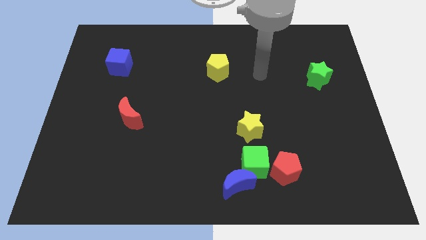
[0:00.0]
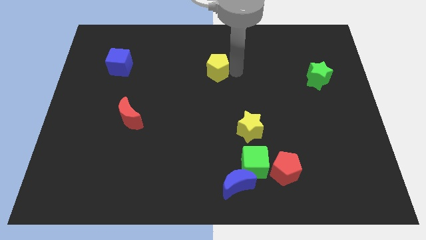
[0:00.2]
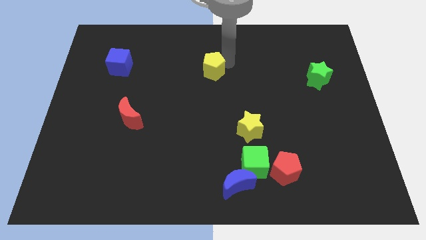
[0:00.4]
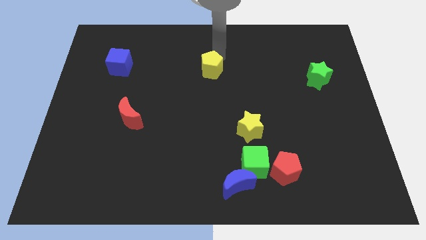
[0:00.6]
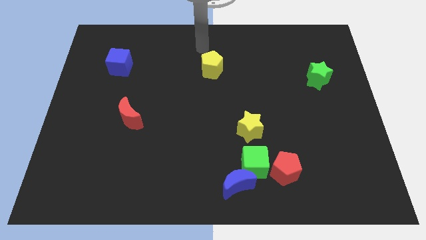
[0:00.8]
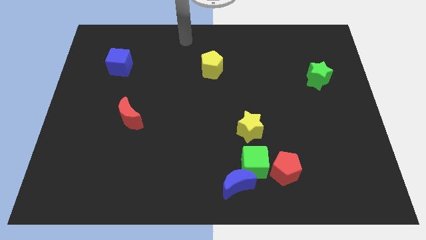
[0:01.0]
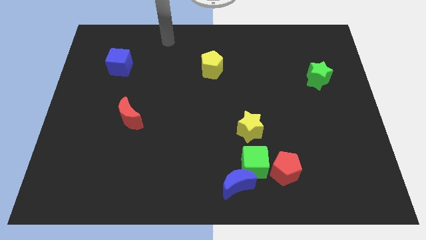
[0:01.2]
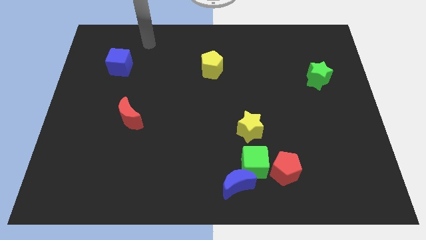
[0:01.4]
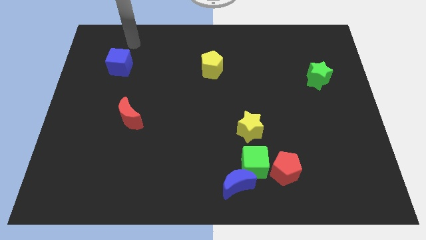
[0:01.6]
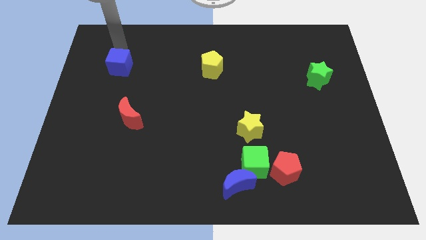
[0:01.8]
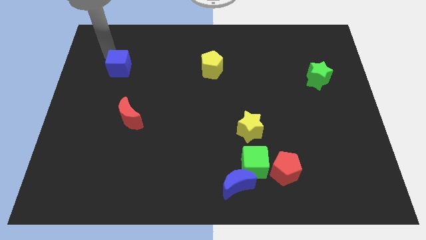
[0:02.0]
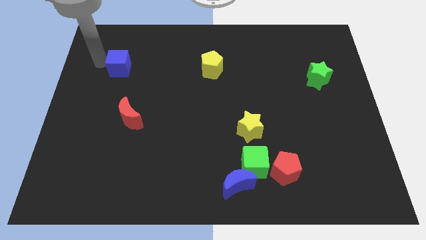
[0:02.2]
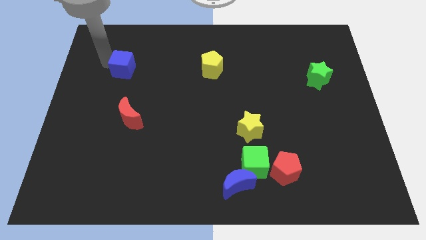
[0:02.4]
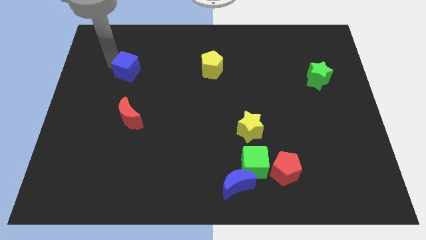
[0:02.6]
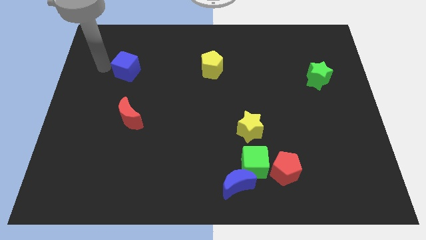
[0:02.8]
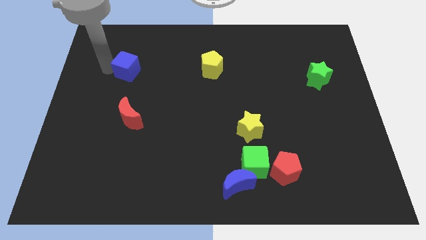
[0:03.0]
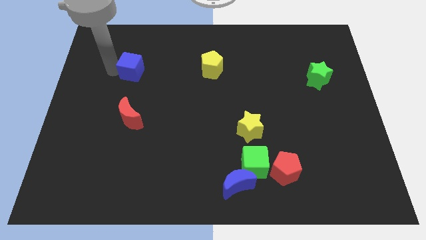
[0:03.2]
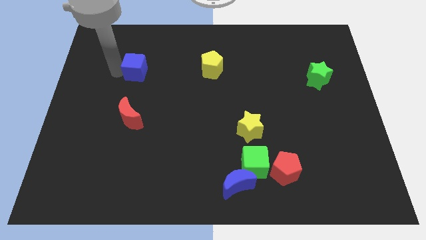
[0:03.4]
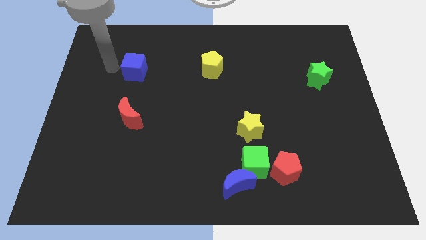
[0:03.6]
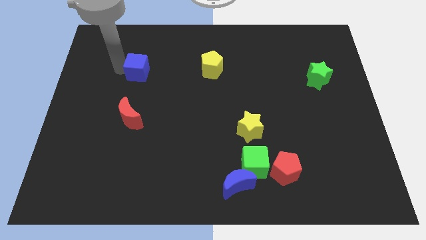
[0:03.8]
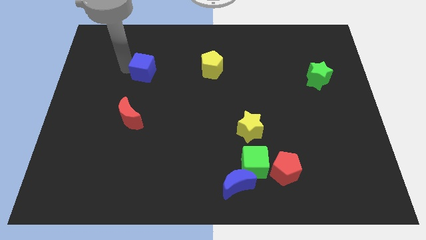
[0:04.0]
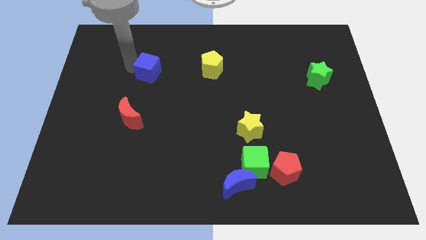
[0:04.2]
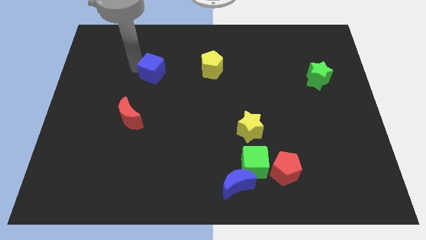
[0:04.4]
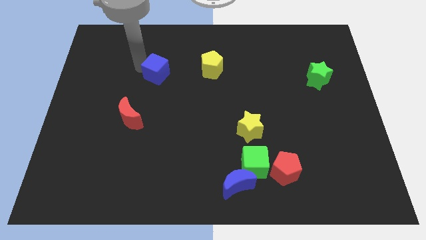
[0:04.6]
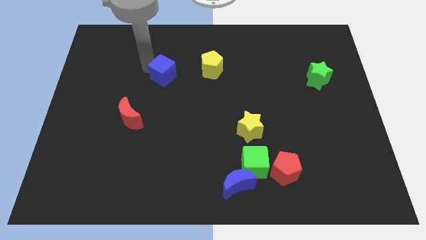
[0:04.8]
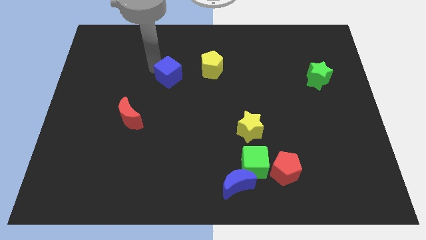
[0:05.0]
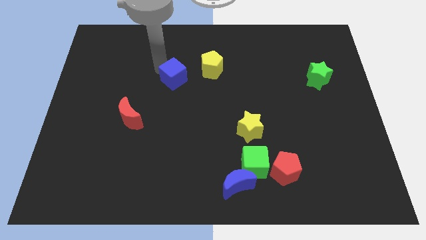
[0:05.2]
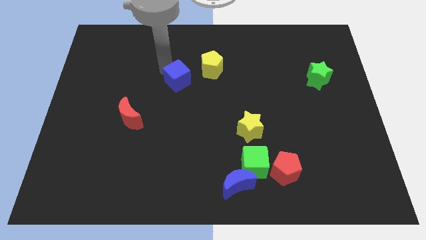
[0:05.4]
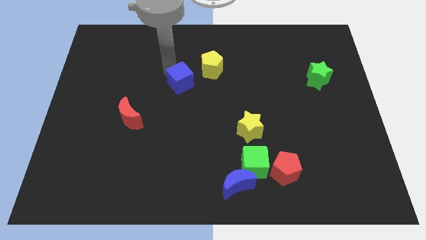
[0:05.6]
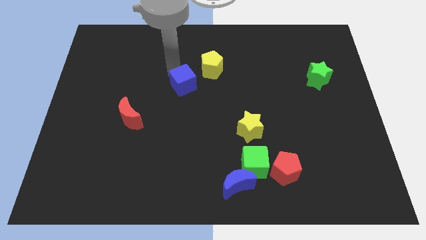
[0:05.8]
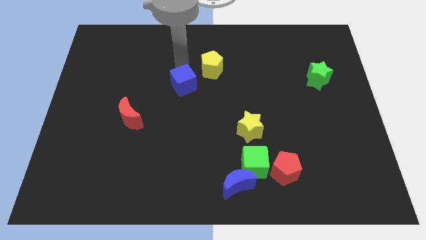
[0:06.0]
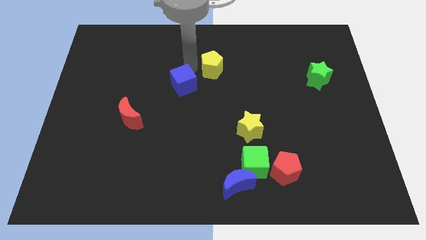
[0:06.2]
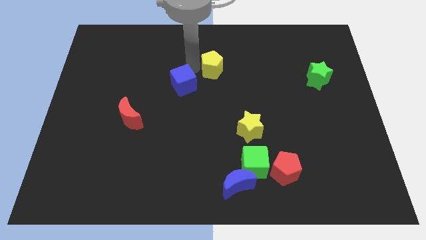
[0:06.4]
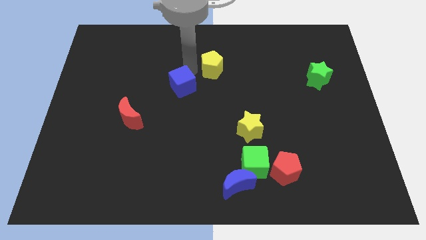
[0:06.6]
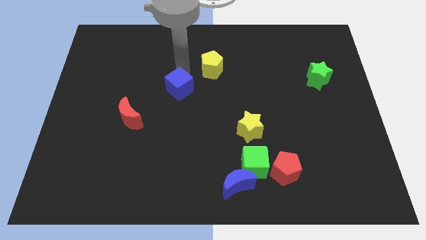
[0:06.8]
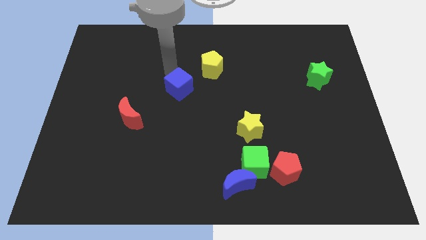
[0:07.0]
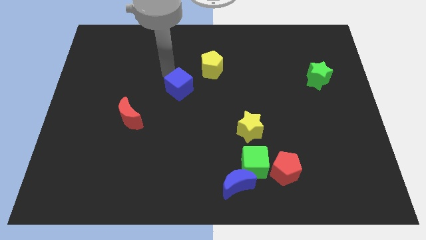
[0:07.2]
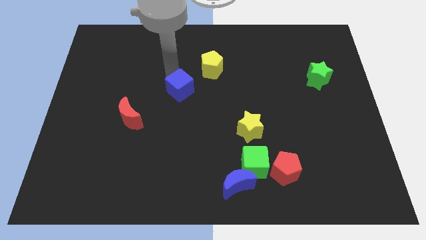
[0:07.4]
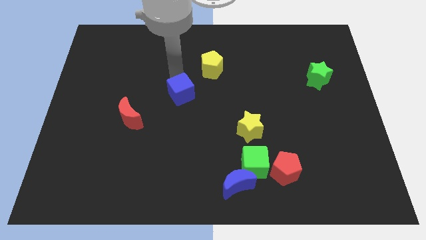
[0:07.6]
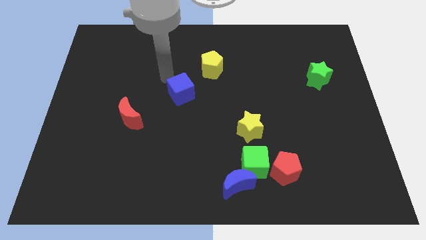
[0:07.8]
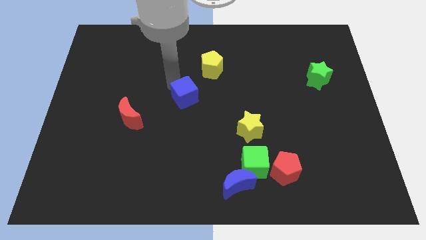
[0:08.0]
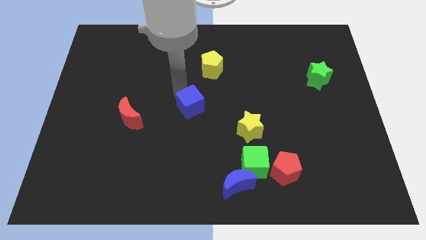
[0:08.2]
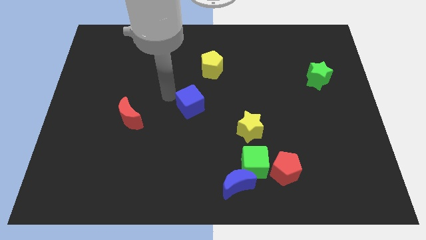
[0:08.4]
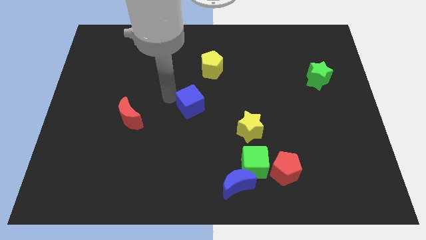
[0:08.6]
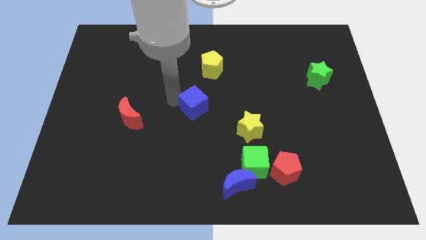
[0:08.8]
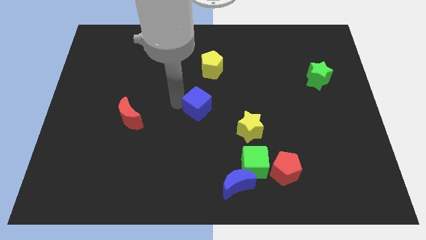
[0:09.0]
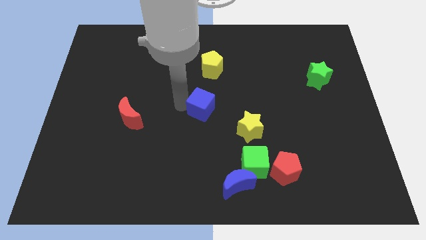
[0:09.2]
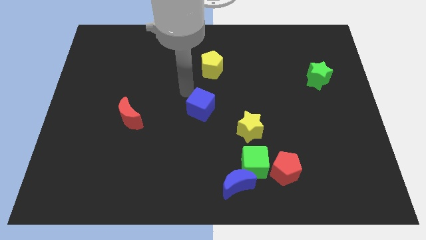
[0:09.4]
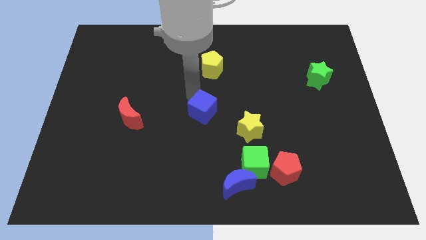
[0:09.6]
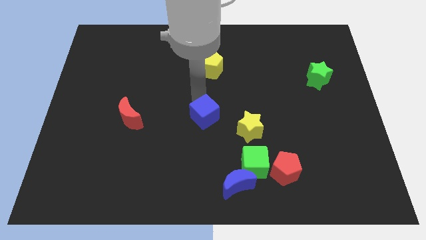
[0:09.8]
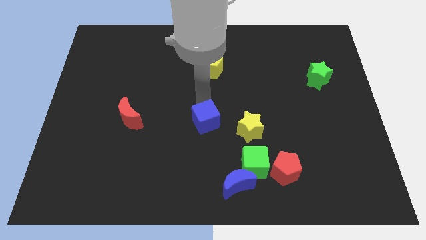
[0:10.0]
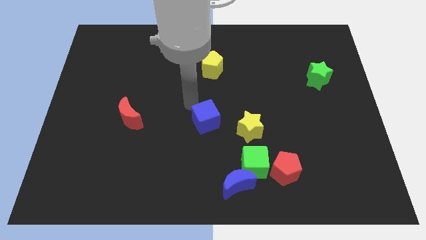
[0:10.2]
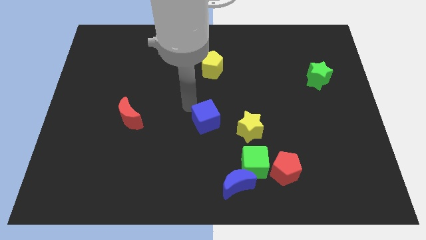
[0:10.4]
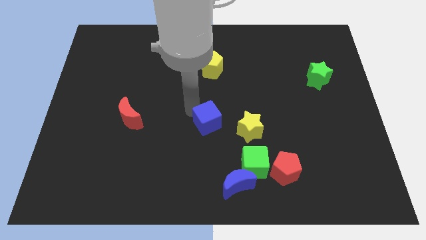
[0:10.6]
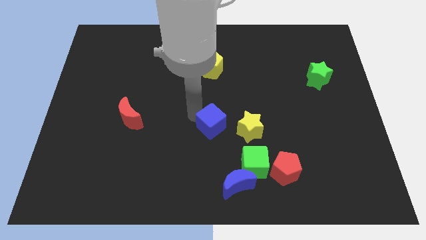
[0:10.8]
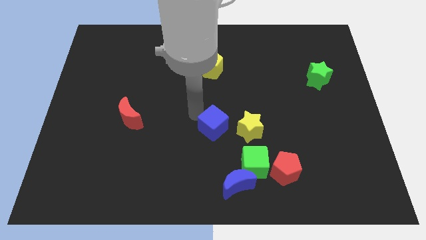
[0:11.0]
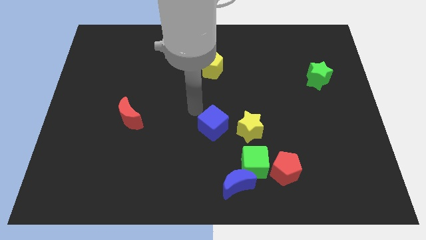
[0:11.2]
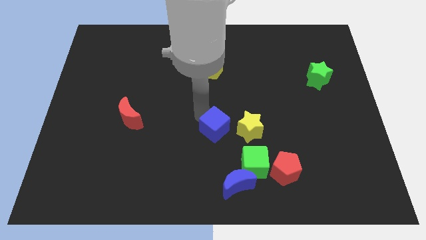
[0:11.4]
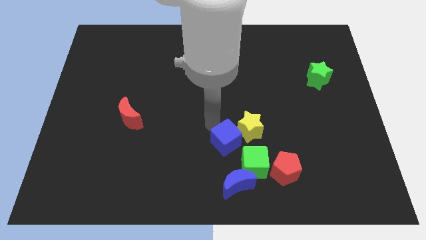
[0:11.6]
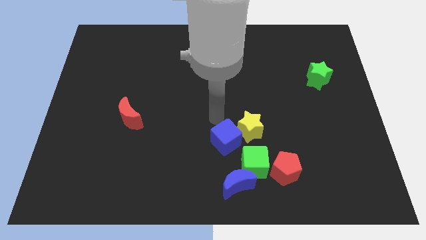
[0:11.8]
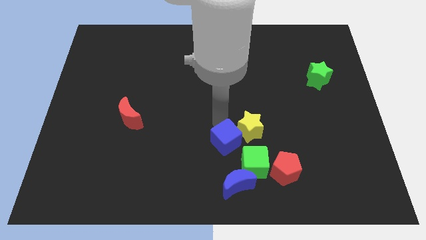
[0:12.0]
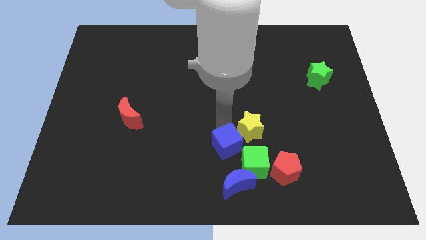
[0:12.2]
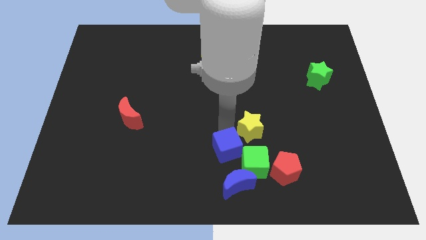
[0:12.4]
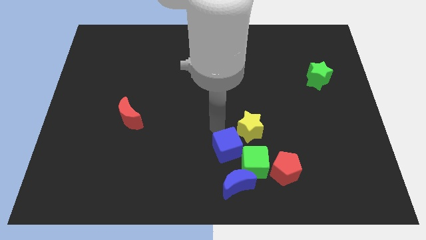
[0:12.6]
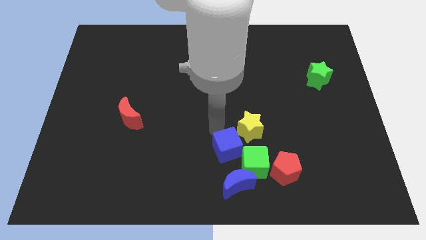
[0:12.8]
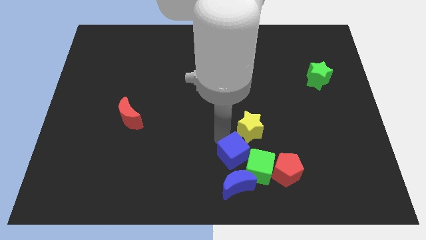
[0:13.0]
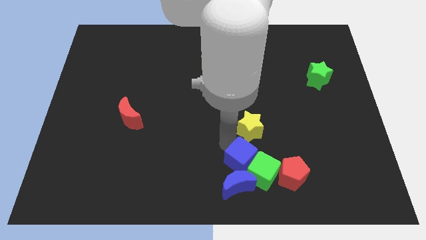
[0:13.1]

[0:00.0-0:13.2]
put the blue cube towards the blue moon

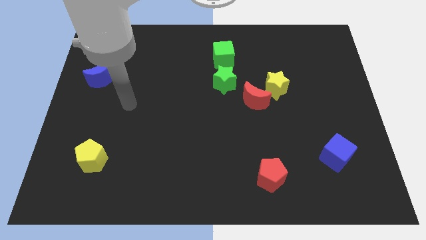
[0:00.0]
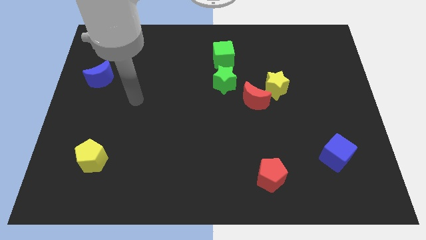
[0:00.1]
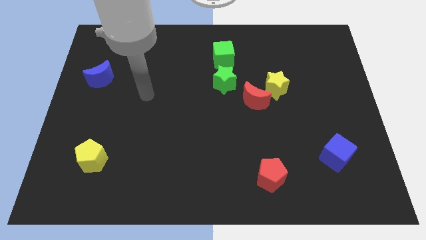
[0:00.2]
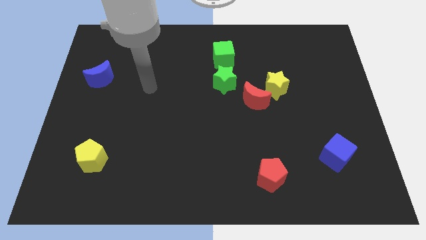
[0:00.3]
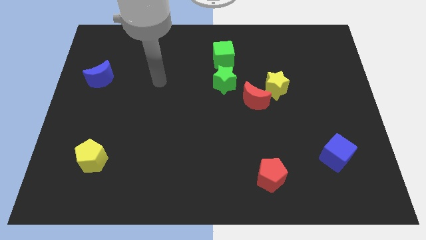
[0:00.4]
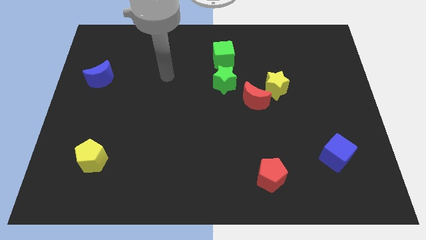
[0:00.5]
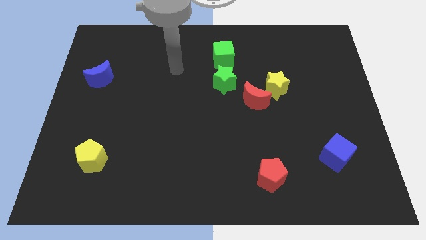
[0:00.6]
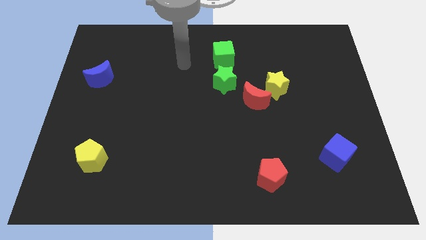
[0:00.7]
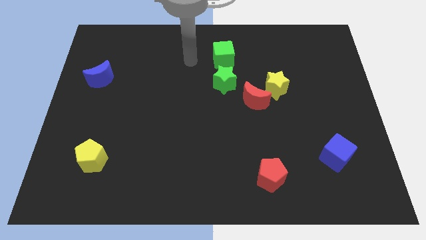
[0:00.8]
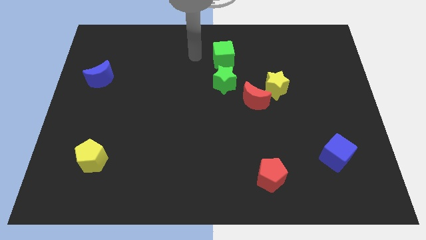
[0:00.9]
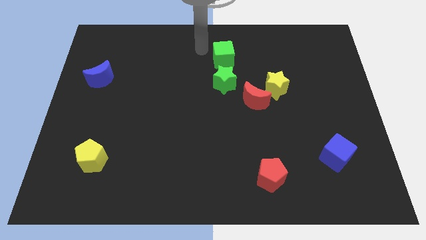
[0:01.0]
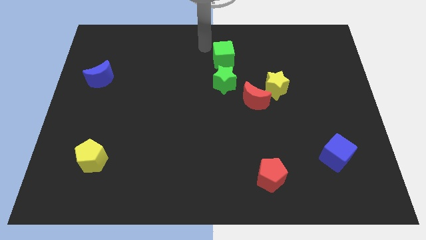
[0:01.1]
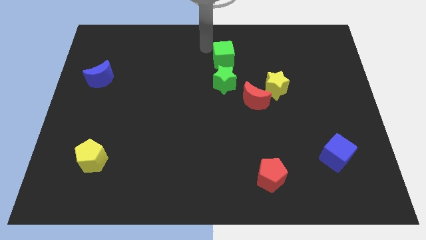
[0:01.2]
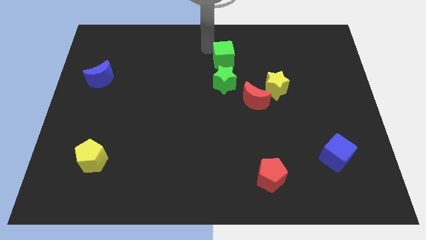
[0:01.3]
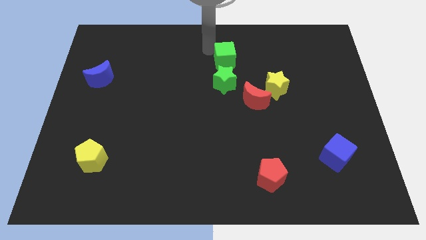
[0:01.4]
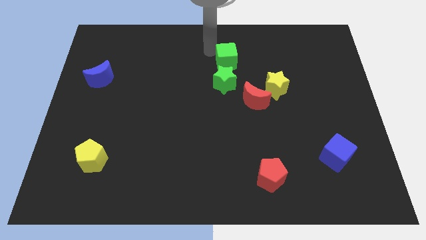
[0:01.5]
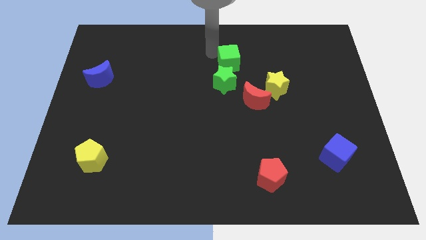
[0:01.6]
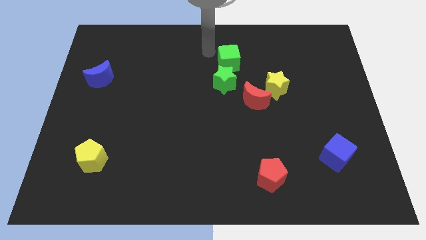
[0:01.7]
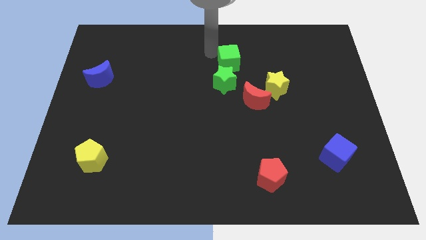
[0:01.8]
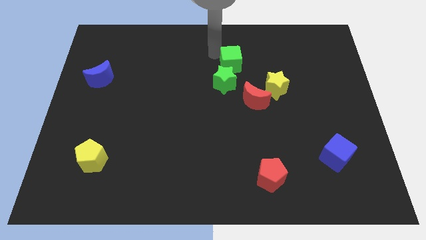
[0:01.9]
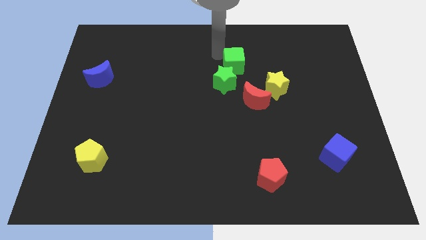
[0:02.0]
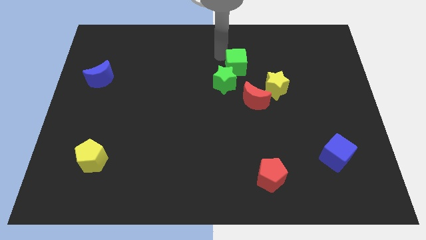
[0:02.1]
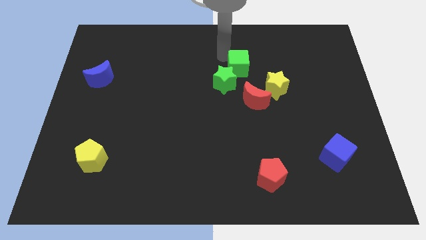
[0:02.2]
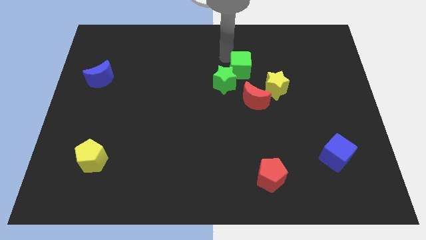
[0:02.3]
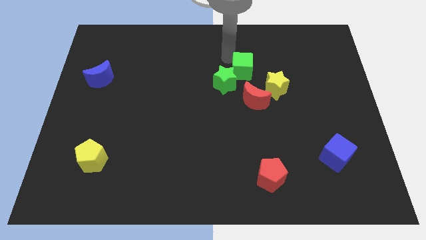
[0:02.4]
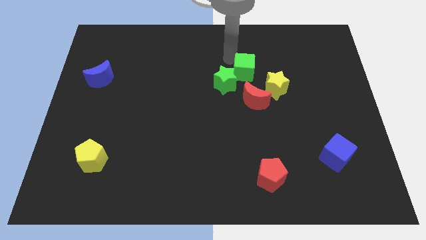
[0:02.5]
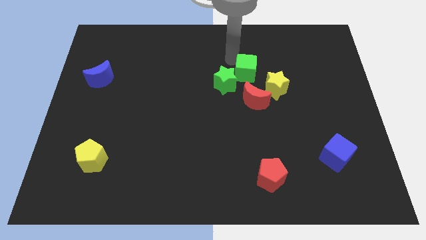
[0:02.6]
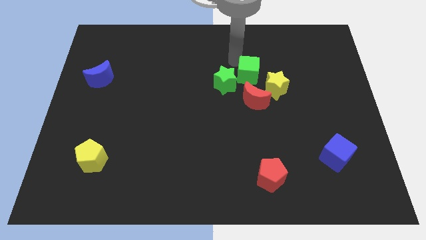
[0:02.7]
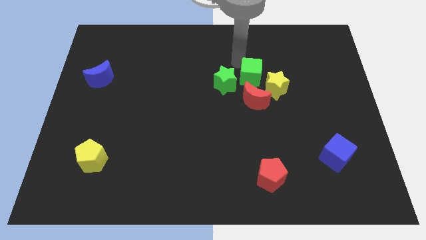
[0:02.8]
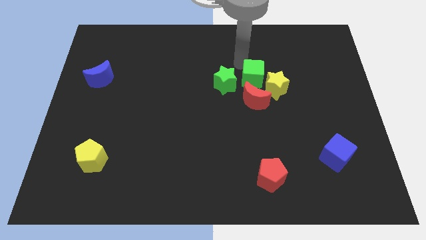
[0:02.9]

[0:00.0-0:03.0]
slide the green cube next to the yellow star
